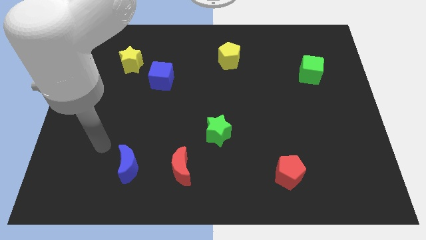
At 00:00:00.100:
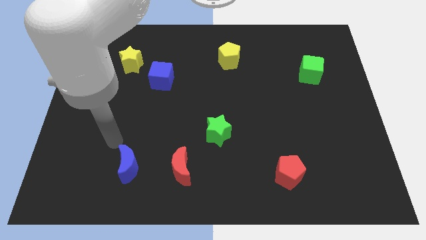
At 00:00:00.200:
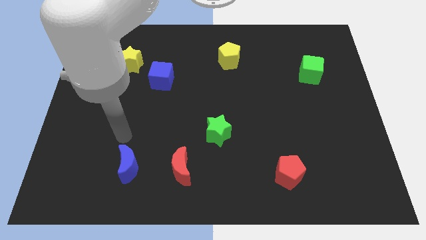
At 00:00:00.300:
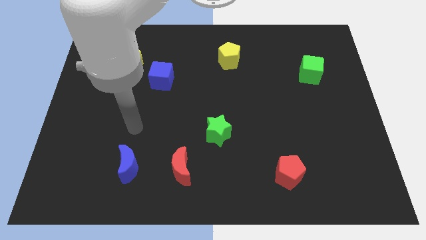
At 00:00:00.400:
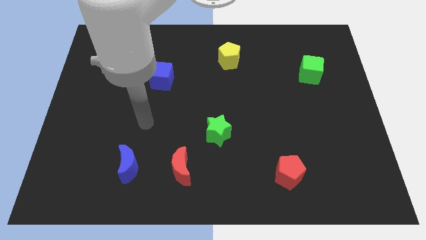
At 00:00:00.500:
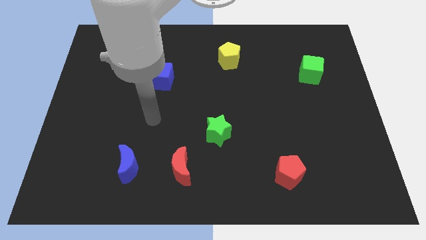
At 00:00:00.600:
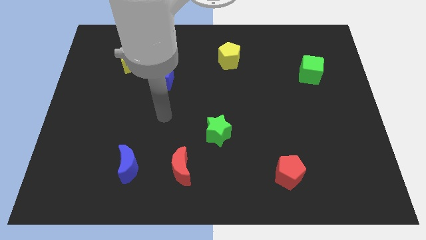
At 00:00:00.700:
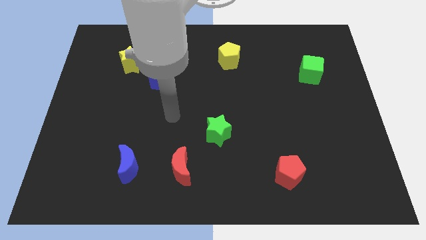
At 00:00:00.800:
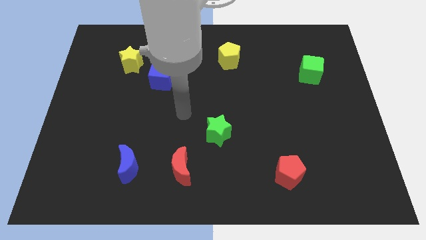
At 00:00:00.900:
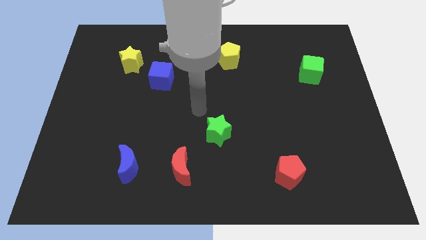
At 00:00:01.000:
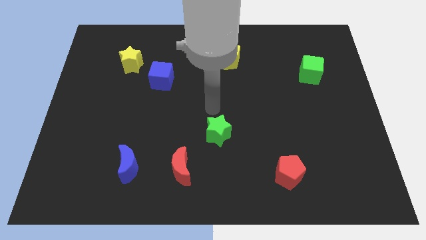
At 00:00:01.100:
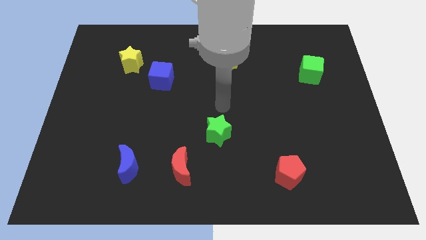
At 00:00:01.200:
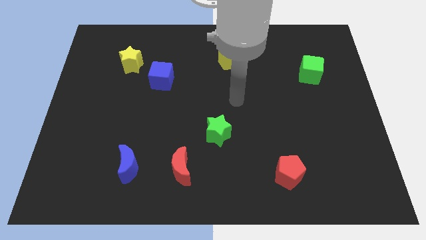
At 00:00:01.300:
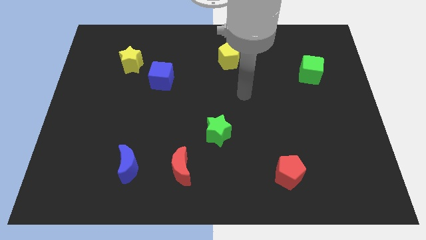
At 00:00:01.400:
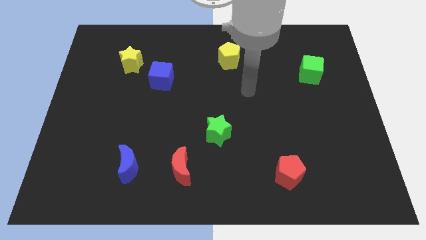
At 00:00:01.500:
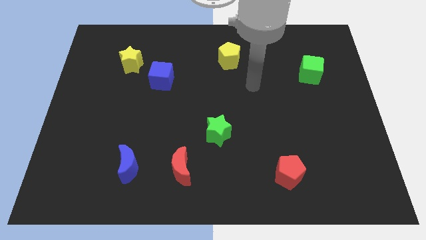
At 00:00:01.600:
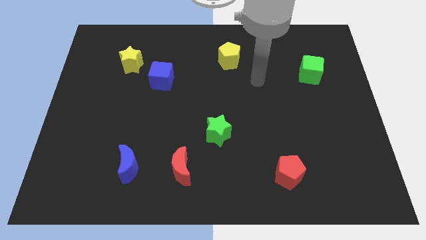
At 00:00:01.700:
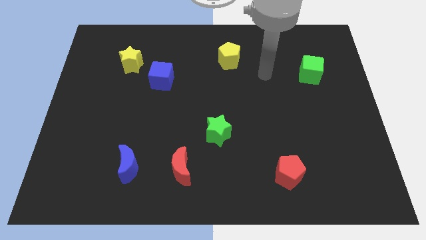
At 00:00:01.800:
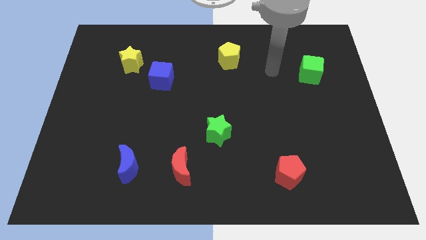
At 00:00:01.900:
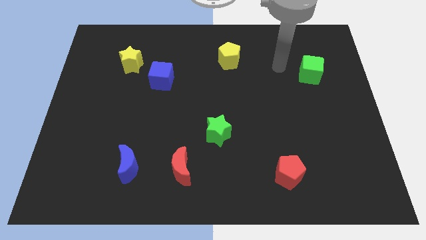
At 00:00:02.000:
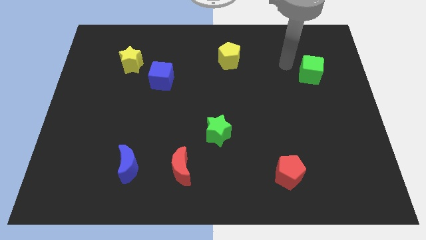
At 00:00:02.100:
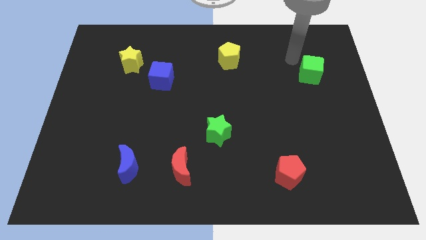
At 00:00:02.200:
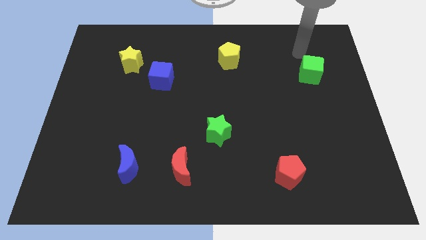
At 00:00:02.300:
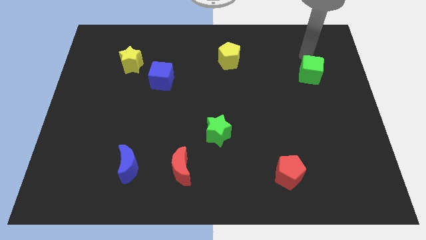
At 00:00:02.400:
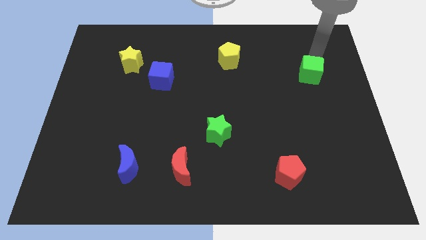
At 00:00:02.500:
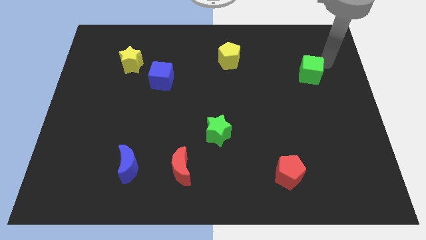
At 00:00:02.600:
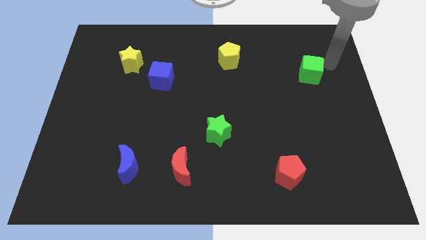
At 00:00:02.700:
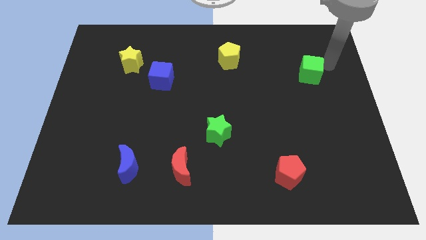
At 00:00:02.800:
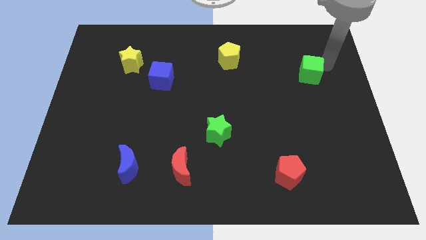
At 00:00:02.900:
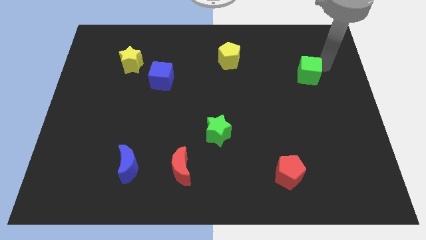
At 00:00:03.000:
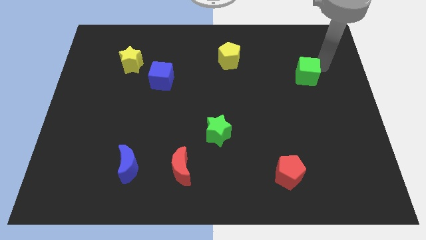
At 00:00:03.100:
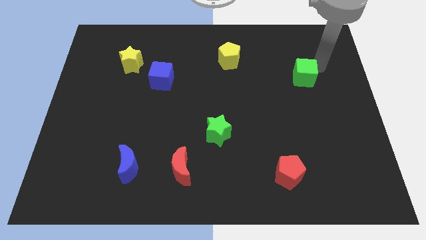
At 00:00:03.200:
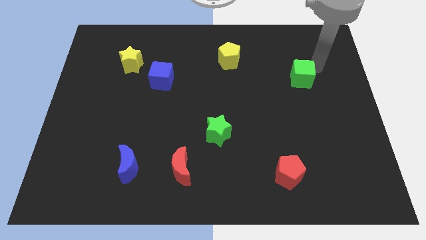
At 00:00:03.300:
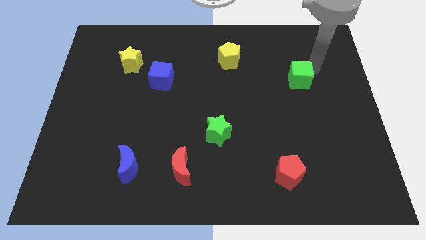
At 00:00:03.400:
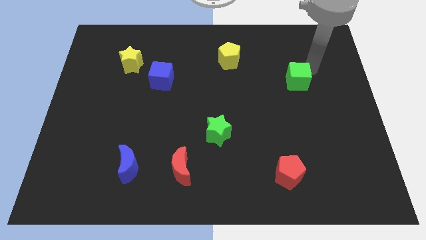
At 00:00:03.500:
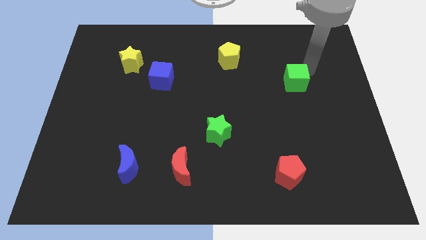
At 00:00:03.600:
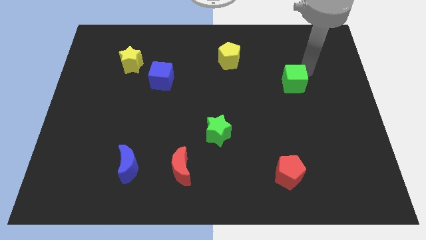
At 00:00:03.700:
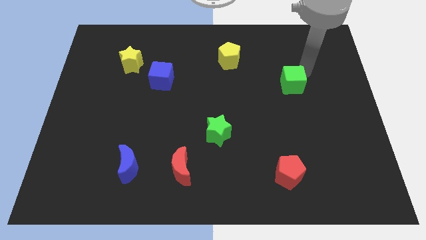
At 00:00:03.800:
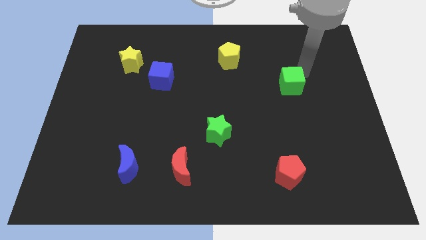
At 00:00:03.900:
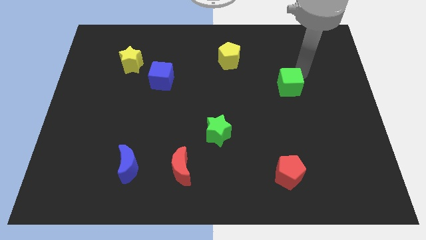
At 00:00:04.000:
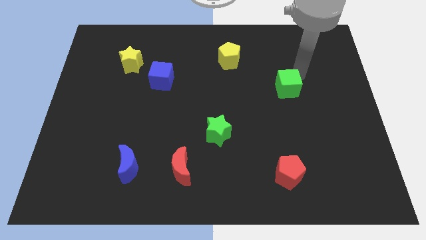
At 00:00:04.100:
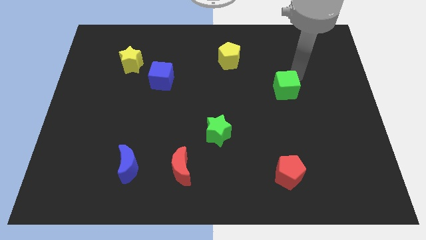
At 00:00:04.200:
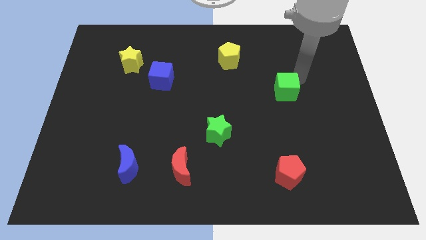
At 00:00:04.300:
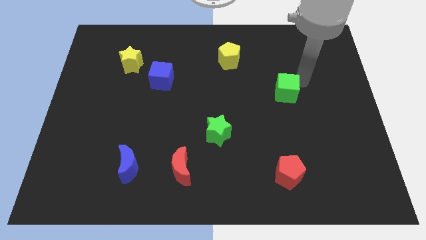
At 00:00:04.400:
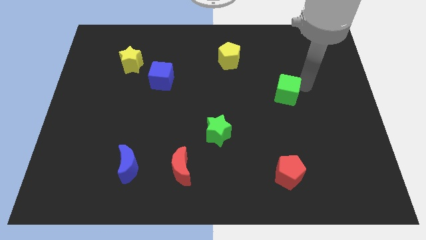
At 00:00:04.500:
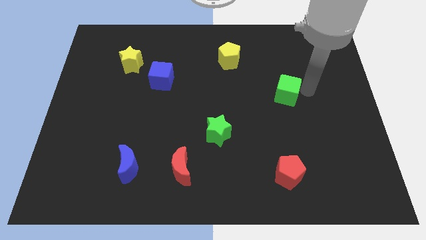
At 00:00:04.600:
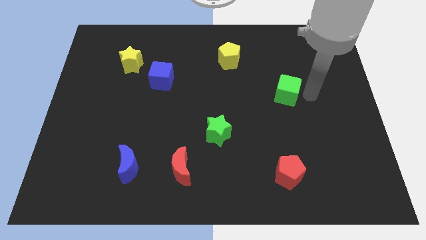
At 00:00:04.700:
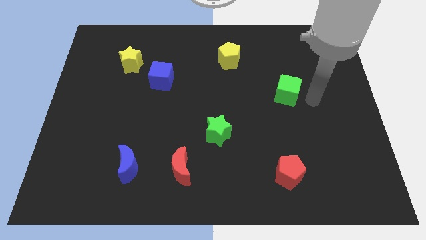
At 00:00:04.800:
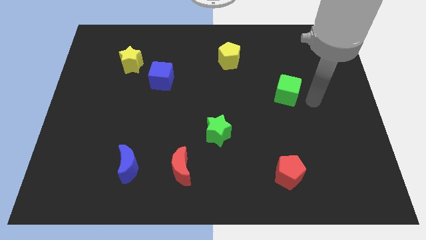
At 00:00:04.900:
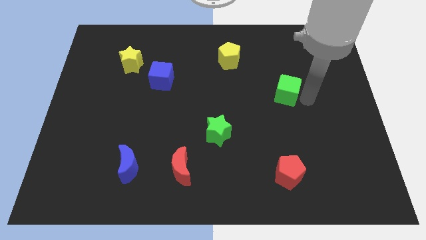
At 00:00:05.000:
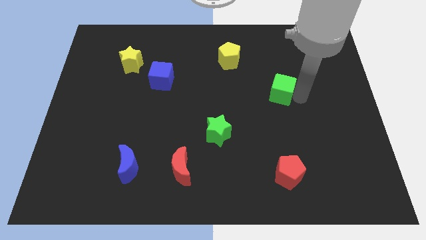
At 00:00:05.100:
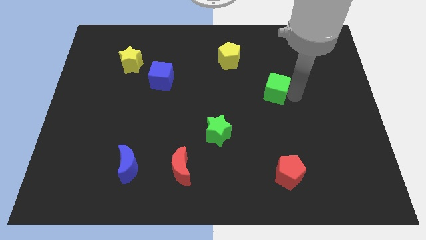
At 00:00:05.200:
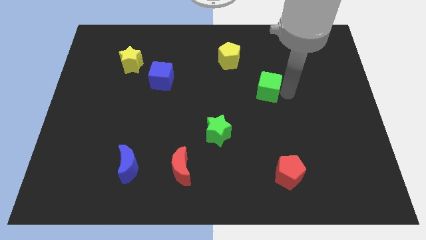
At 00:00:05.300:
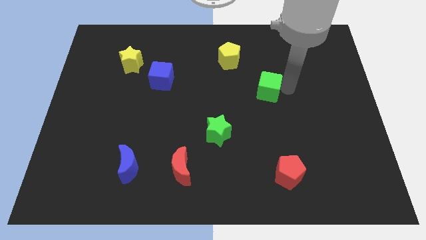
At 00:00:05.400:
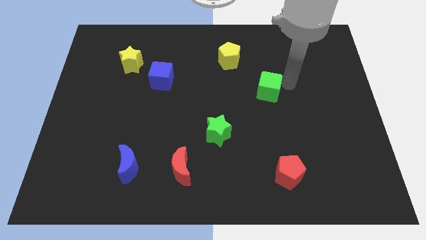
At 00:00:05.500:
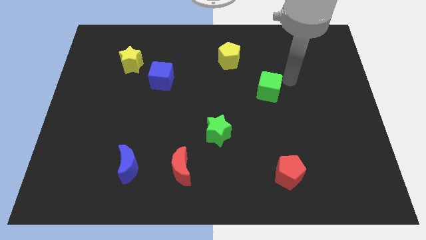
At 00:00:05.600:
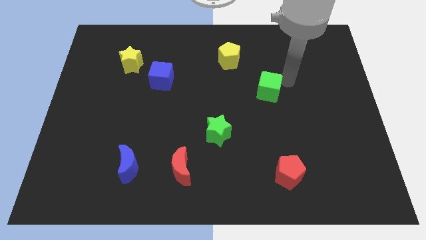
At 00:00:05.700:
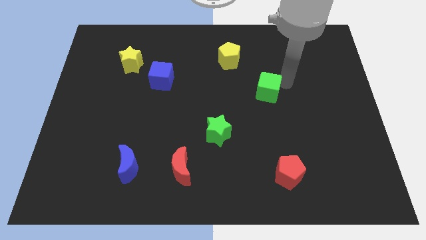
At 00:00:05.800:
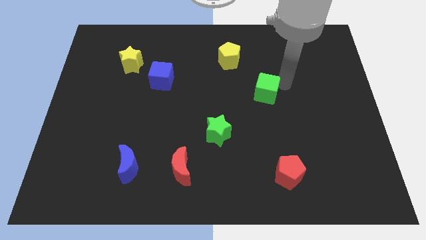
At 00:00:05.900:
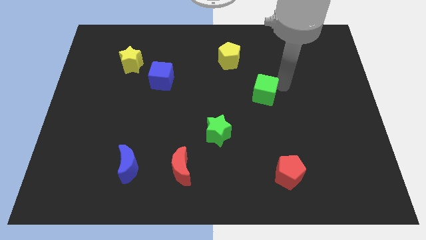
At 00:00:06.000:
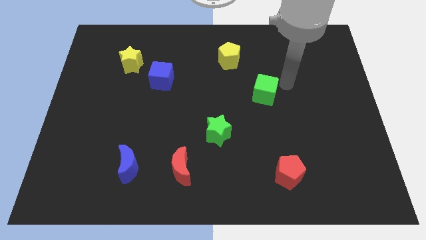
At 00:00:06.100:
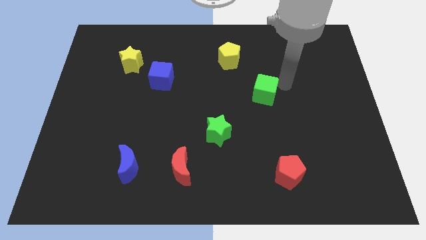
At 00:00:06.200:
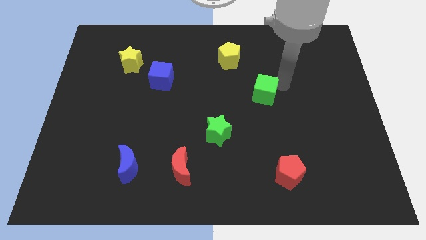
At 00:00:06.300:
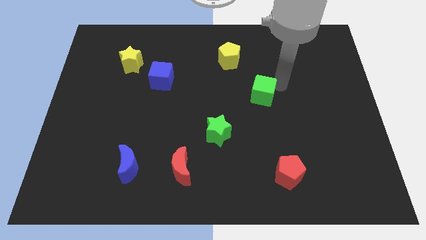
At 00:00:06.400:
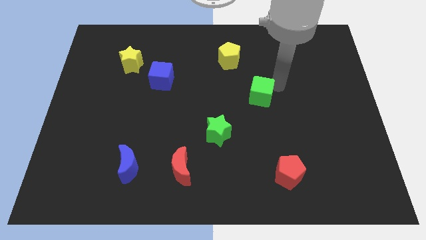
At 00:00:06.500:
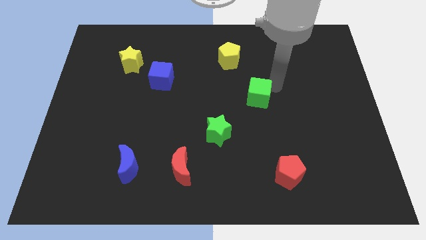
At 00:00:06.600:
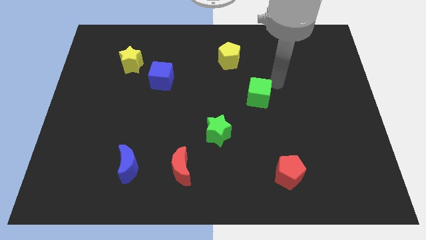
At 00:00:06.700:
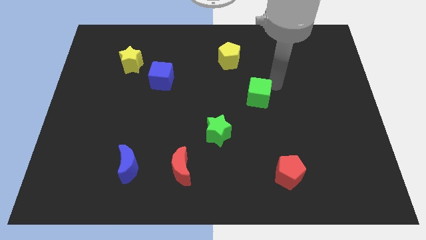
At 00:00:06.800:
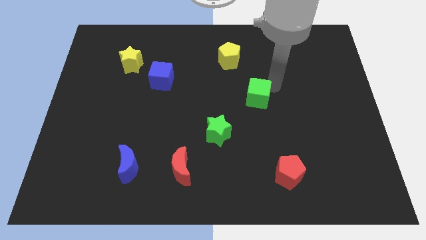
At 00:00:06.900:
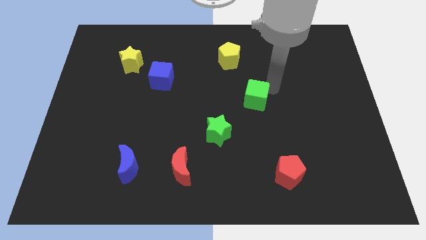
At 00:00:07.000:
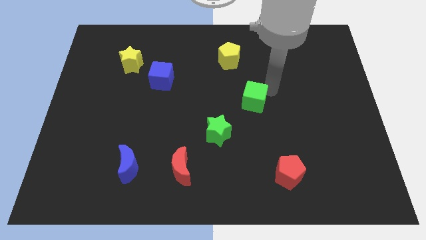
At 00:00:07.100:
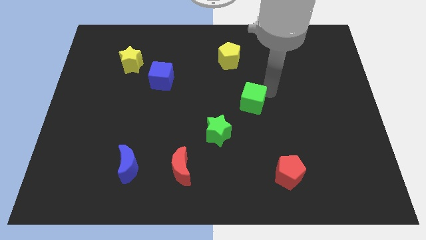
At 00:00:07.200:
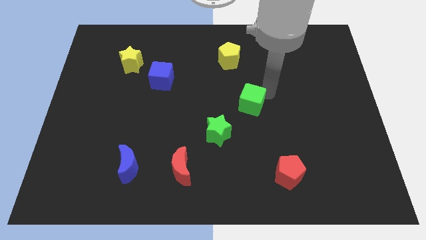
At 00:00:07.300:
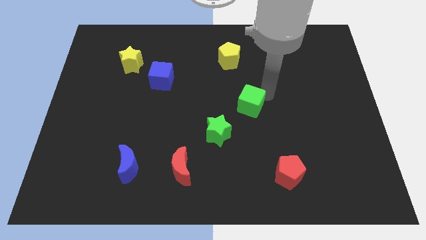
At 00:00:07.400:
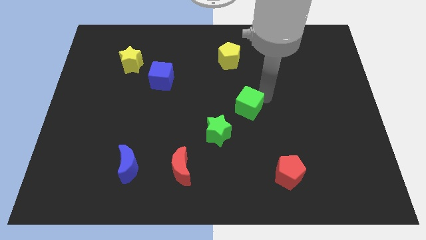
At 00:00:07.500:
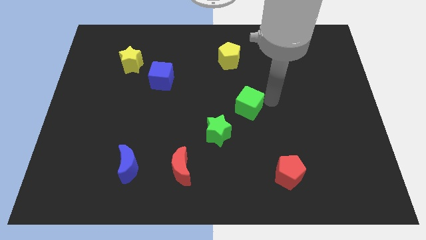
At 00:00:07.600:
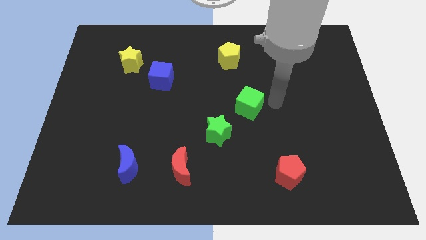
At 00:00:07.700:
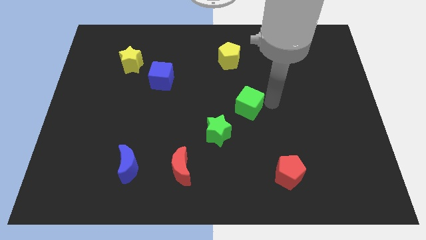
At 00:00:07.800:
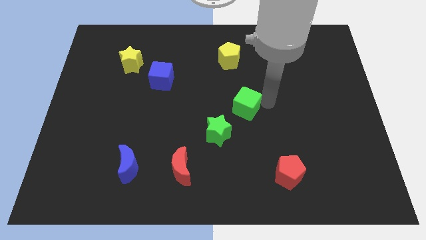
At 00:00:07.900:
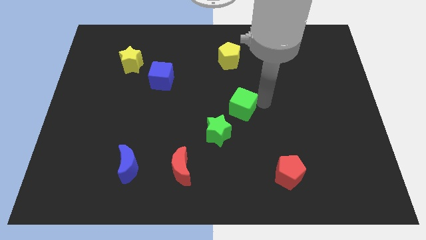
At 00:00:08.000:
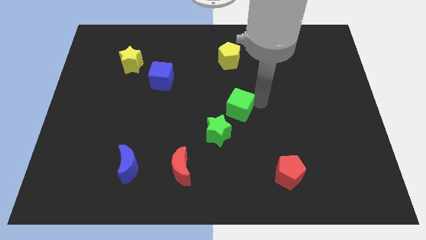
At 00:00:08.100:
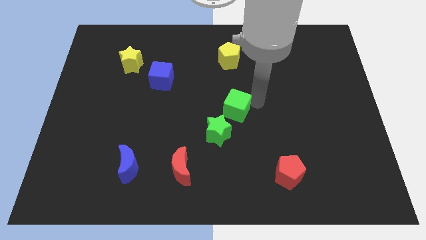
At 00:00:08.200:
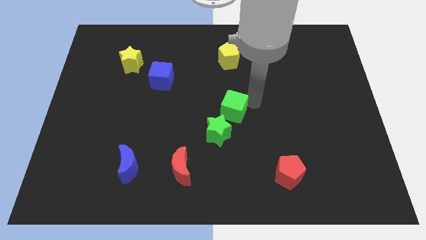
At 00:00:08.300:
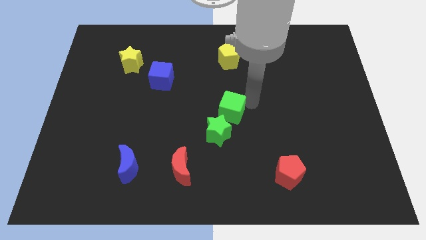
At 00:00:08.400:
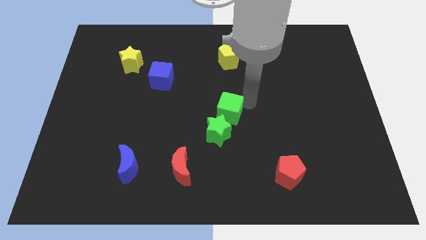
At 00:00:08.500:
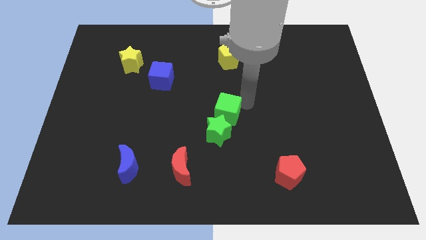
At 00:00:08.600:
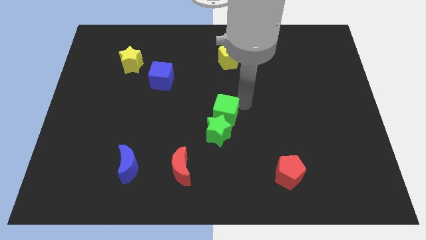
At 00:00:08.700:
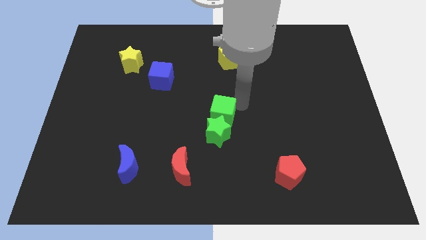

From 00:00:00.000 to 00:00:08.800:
slide the green cube to the top left of the green star
